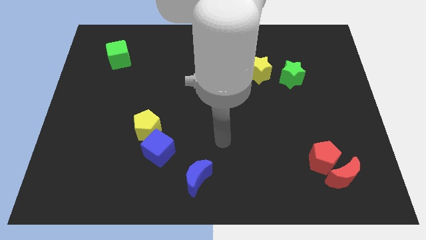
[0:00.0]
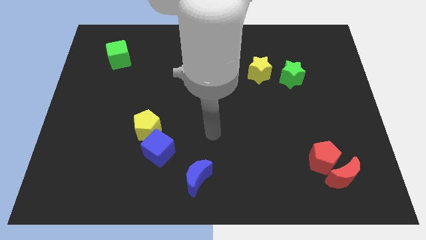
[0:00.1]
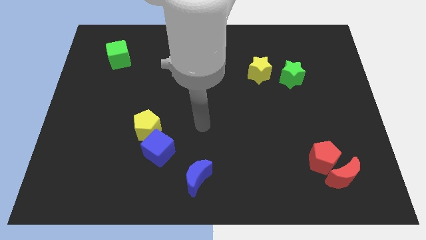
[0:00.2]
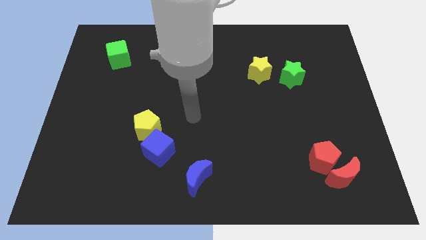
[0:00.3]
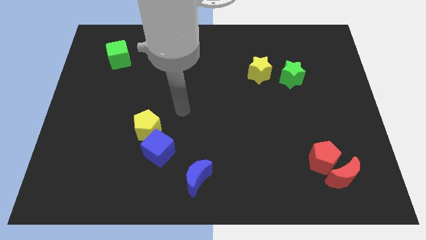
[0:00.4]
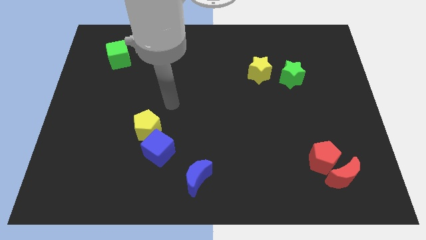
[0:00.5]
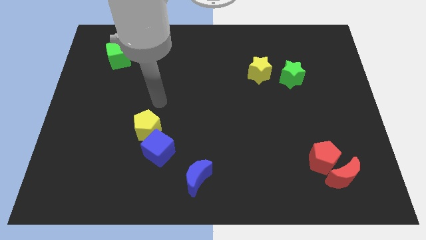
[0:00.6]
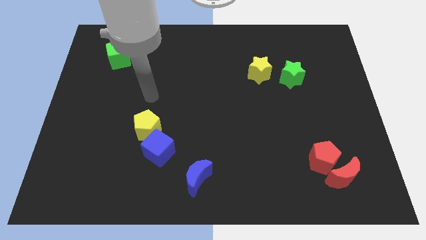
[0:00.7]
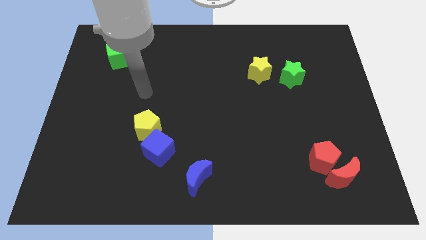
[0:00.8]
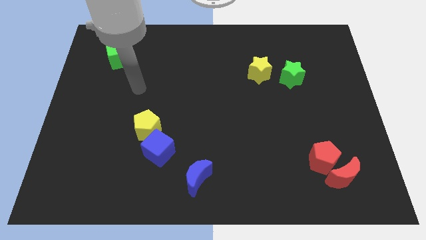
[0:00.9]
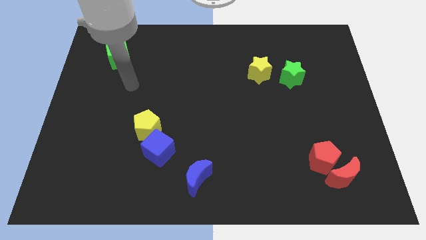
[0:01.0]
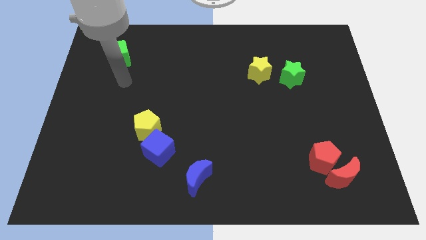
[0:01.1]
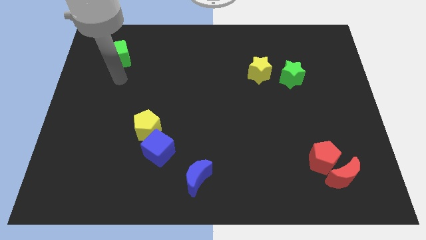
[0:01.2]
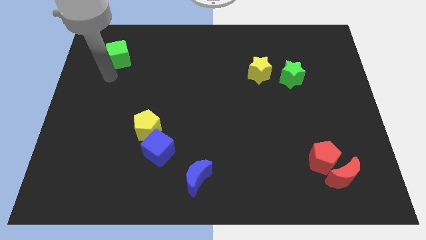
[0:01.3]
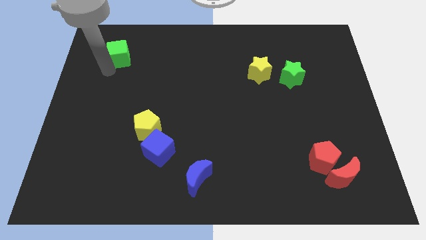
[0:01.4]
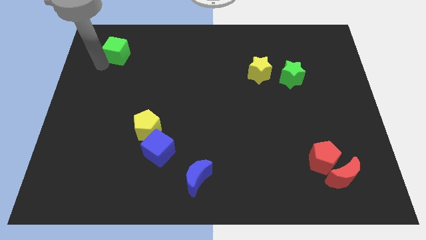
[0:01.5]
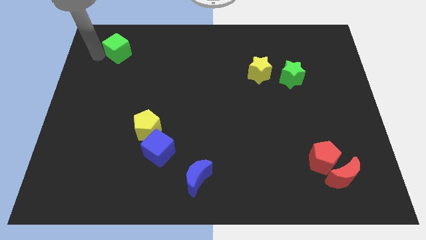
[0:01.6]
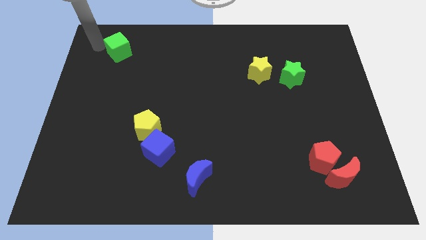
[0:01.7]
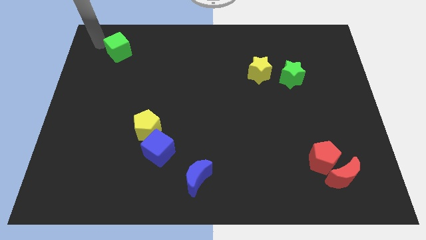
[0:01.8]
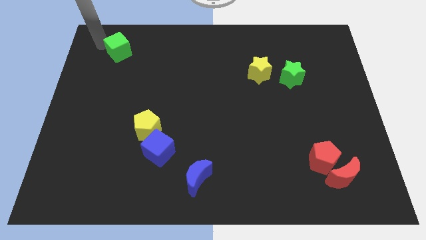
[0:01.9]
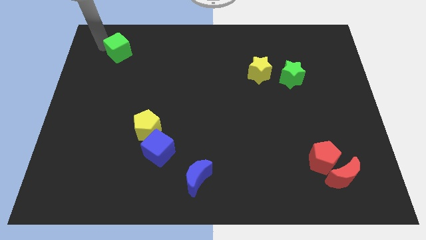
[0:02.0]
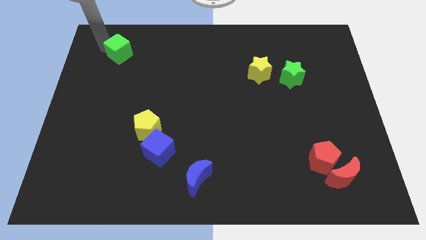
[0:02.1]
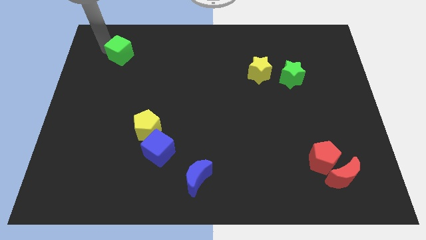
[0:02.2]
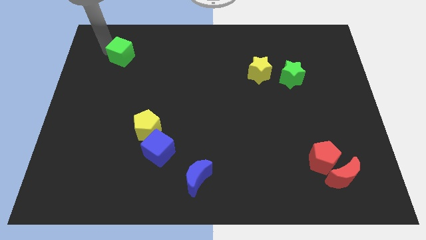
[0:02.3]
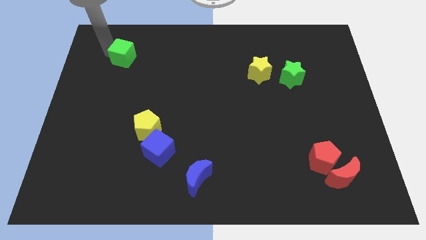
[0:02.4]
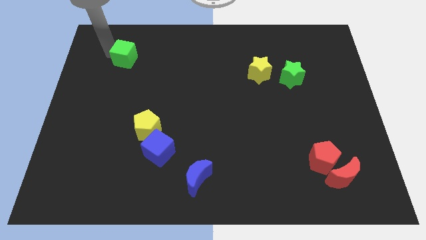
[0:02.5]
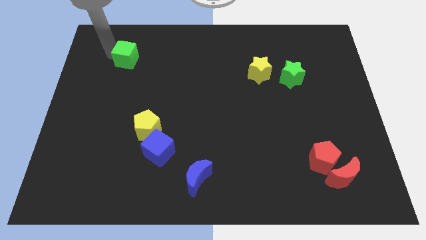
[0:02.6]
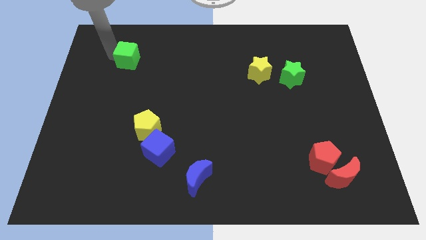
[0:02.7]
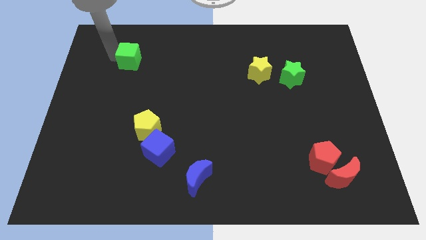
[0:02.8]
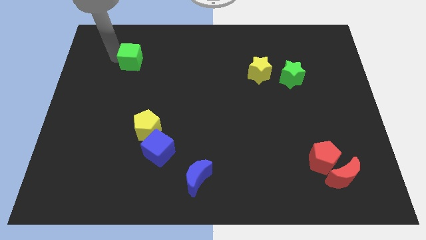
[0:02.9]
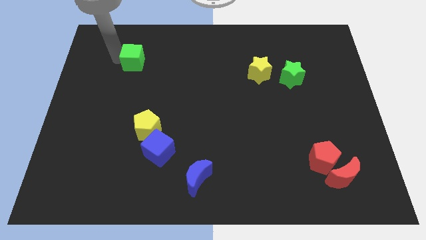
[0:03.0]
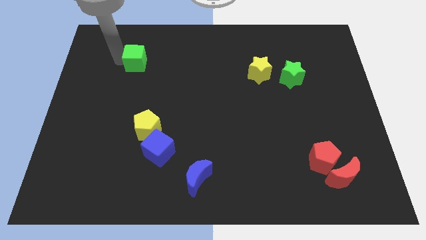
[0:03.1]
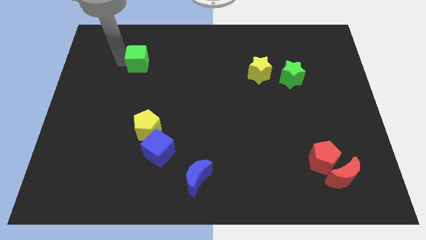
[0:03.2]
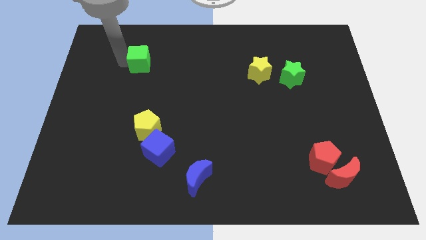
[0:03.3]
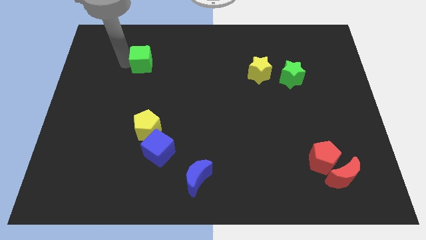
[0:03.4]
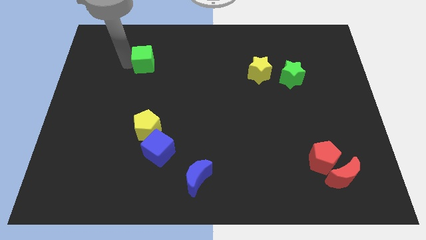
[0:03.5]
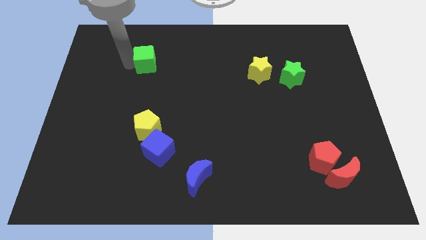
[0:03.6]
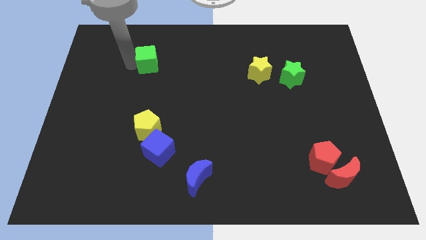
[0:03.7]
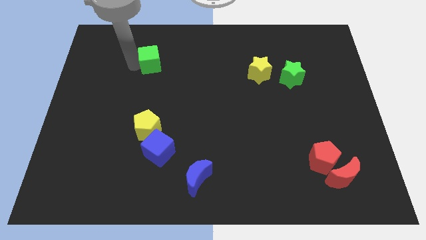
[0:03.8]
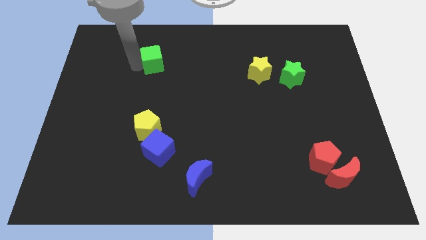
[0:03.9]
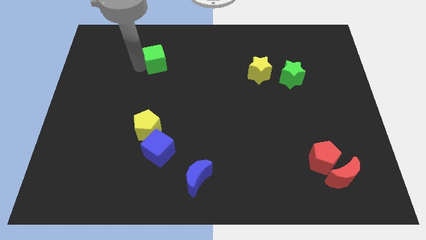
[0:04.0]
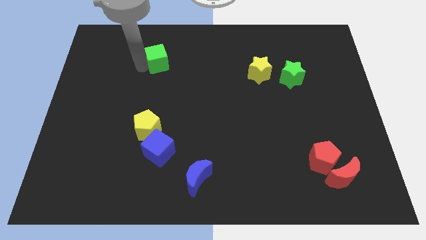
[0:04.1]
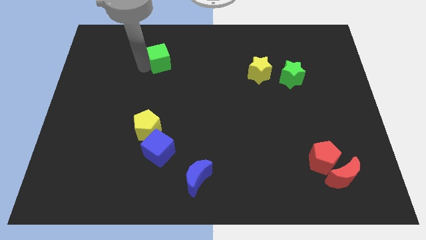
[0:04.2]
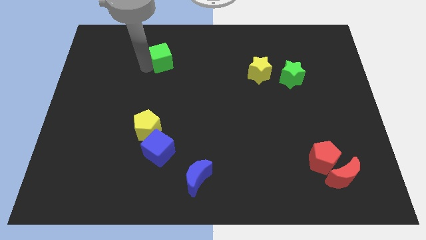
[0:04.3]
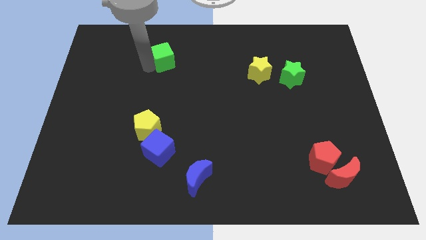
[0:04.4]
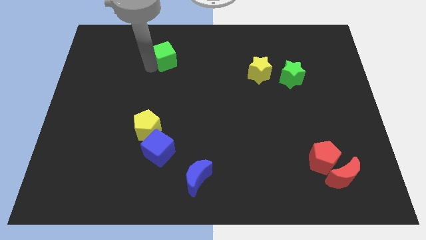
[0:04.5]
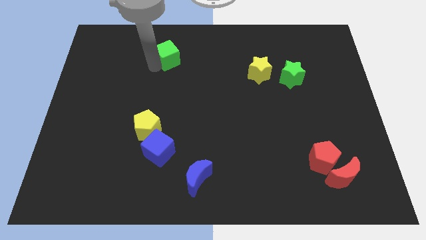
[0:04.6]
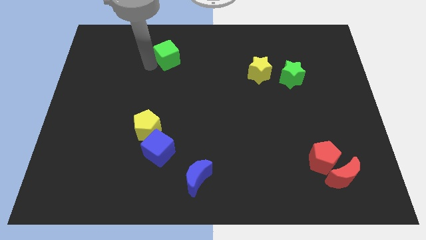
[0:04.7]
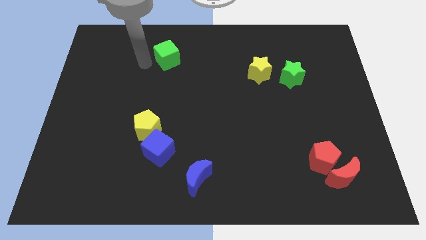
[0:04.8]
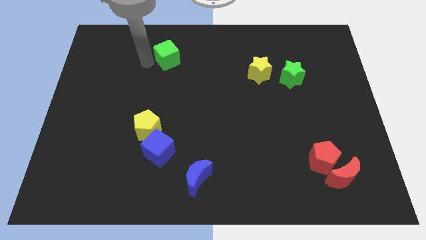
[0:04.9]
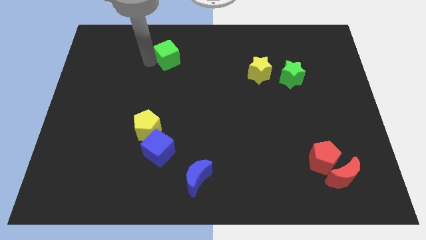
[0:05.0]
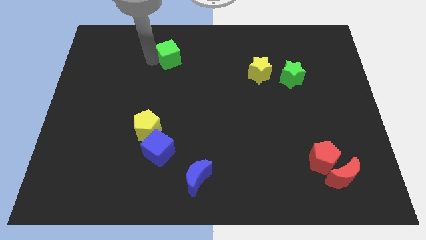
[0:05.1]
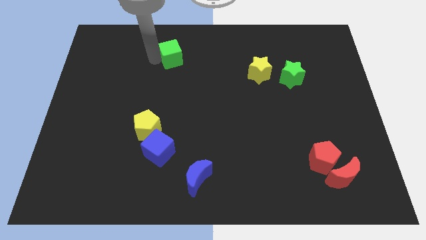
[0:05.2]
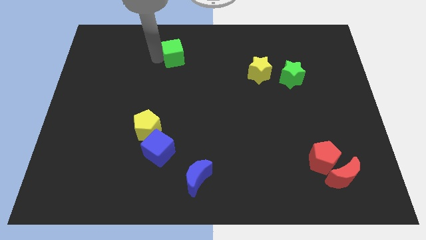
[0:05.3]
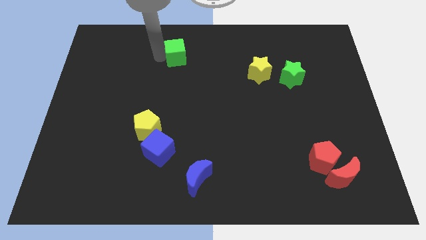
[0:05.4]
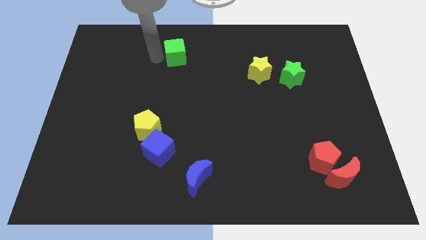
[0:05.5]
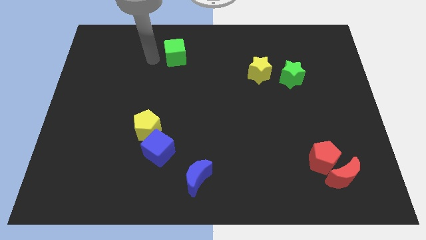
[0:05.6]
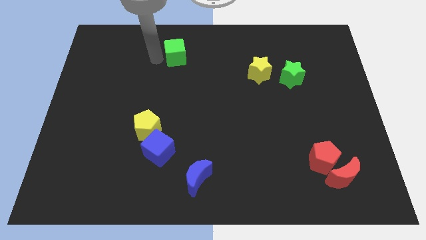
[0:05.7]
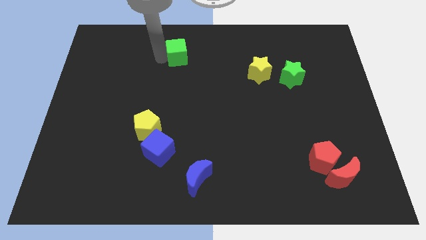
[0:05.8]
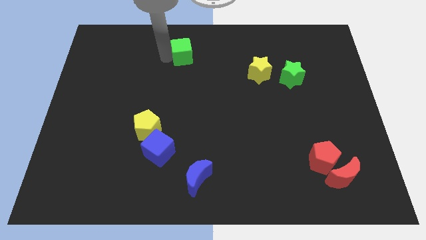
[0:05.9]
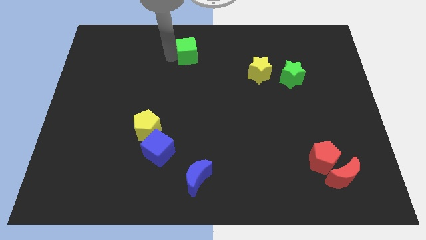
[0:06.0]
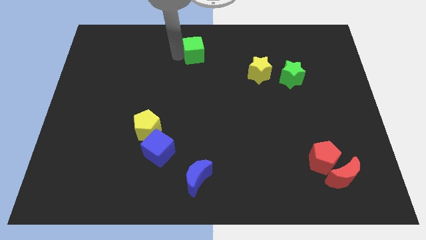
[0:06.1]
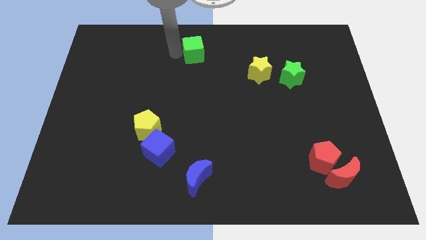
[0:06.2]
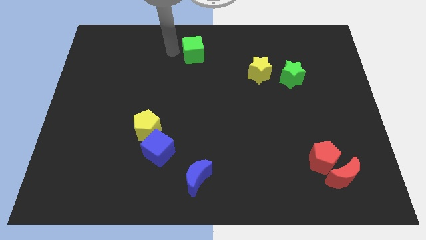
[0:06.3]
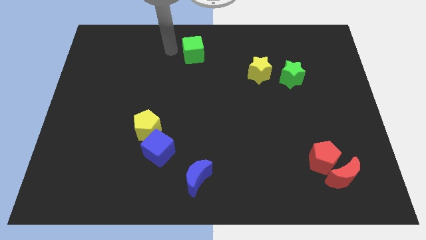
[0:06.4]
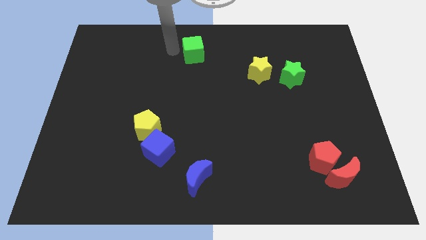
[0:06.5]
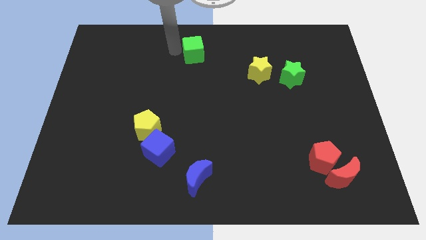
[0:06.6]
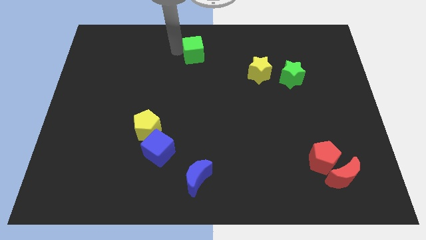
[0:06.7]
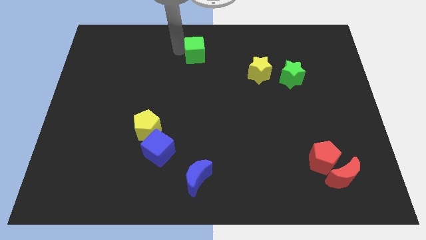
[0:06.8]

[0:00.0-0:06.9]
move the green cube right

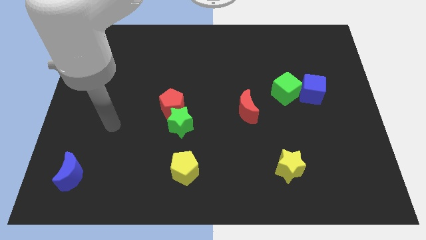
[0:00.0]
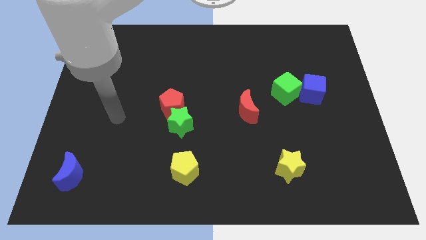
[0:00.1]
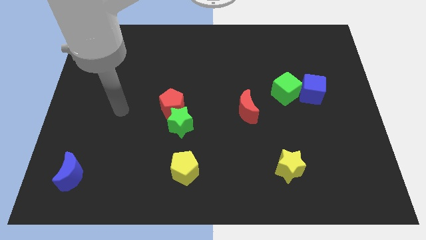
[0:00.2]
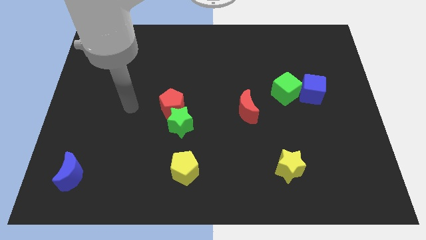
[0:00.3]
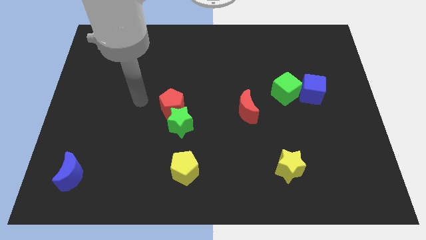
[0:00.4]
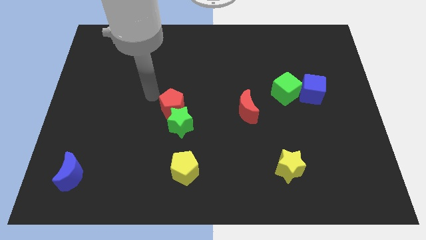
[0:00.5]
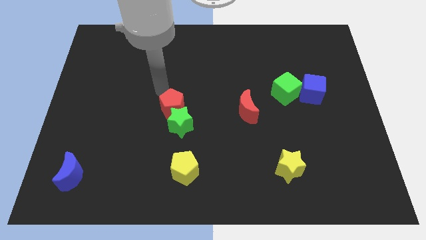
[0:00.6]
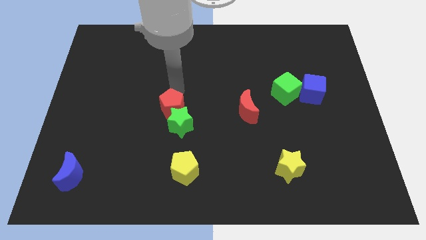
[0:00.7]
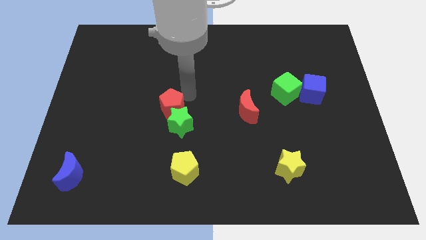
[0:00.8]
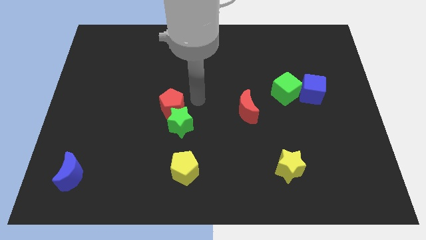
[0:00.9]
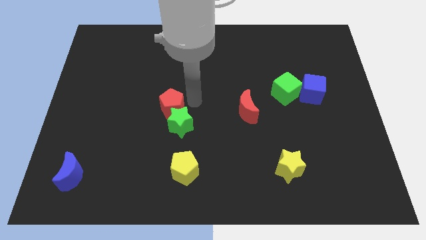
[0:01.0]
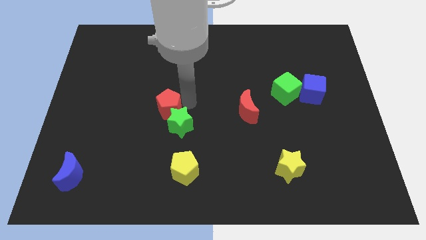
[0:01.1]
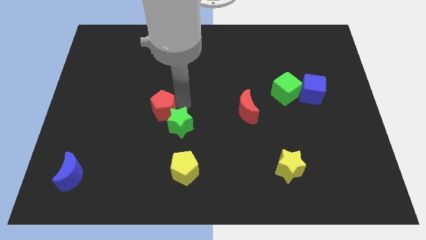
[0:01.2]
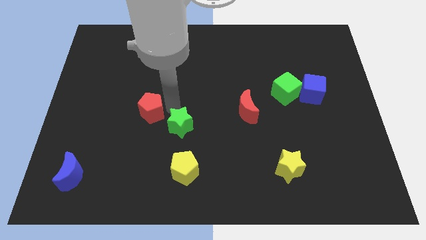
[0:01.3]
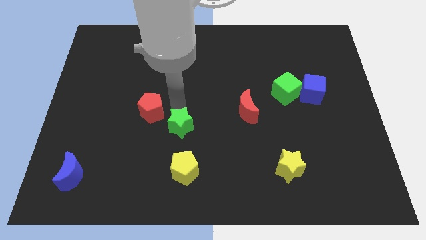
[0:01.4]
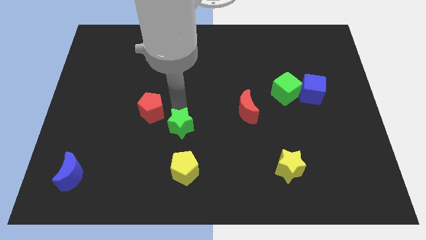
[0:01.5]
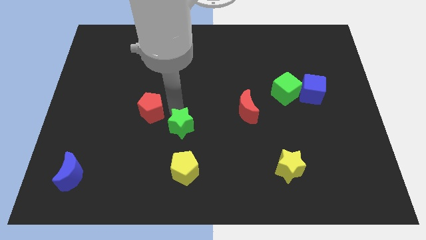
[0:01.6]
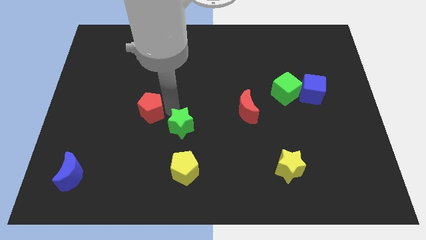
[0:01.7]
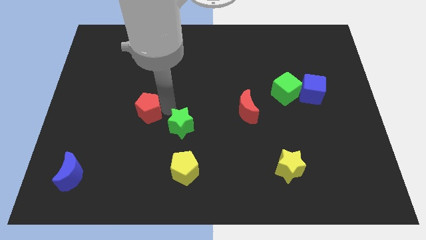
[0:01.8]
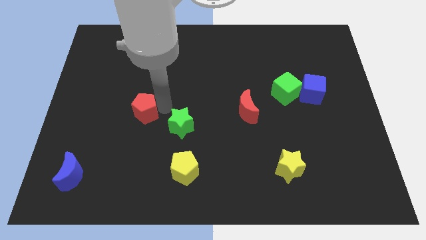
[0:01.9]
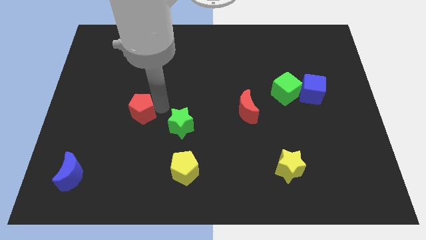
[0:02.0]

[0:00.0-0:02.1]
slightly slide the red pentagon to the left
